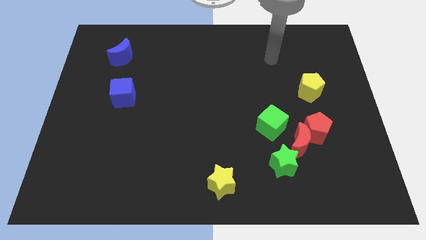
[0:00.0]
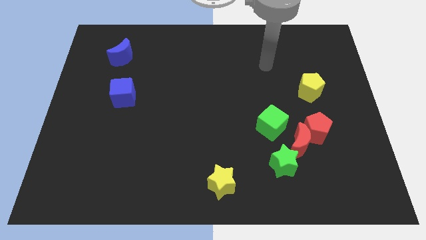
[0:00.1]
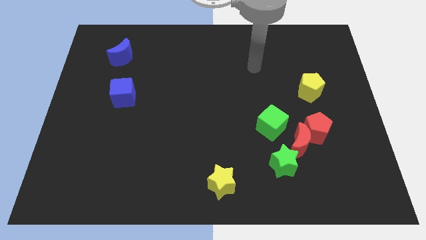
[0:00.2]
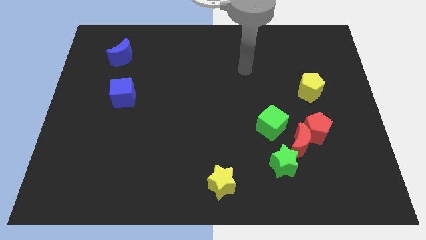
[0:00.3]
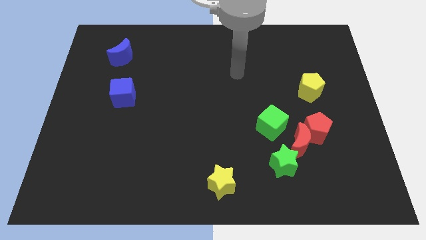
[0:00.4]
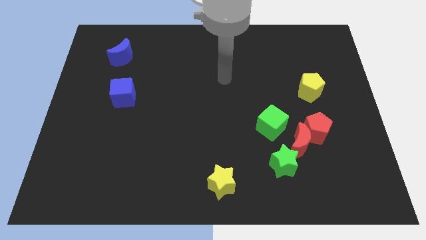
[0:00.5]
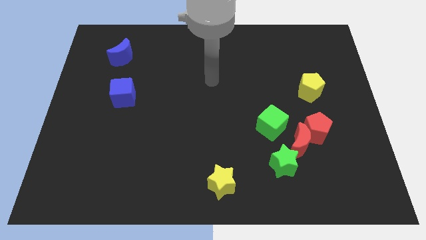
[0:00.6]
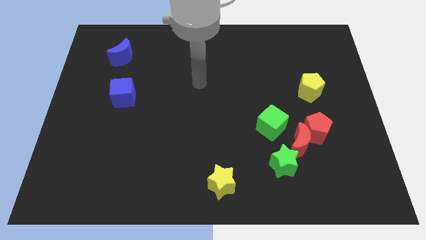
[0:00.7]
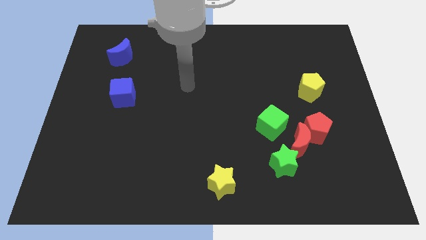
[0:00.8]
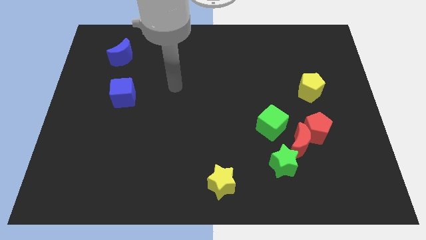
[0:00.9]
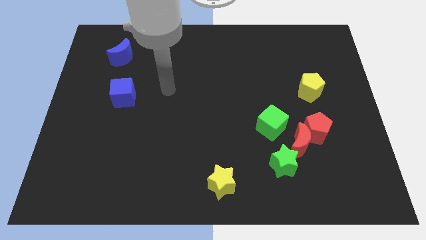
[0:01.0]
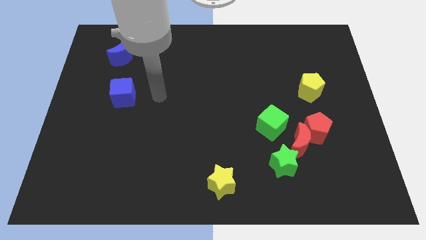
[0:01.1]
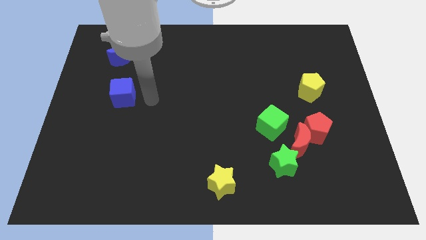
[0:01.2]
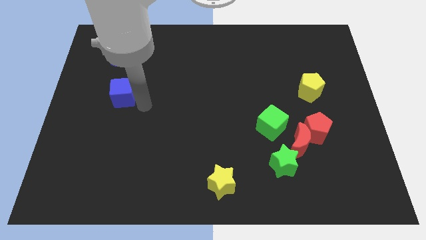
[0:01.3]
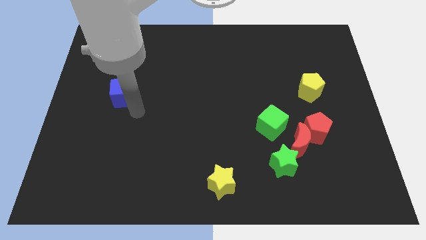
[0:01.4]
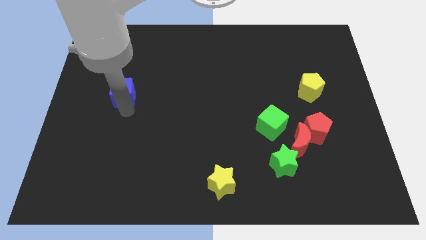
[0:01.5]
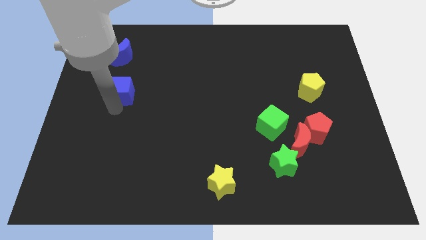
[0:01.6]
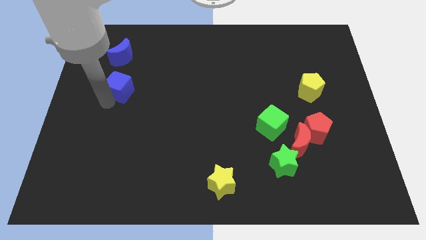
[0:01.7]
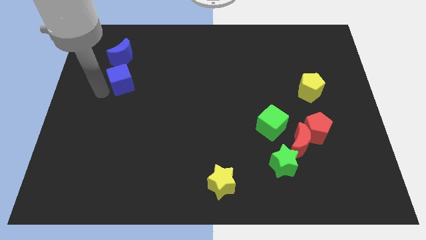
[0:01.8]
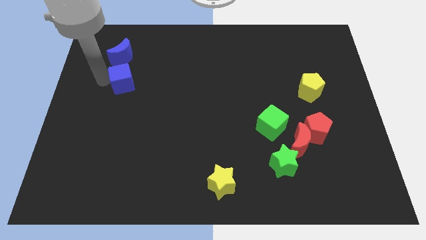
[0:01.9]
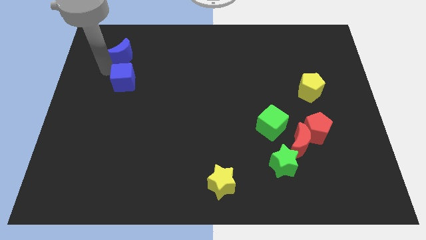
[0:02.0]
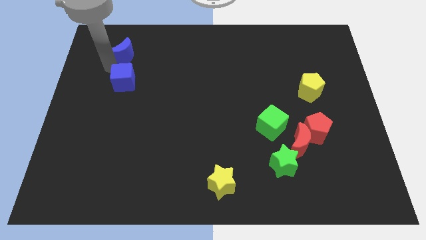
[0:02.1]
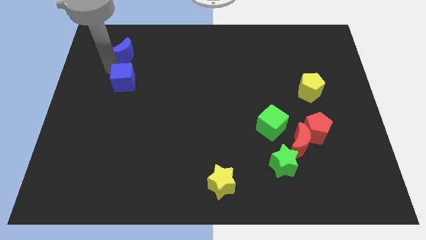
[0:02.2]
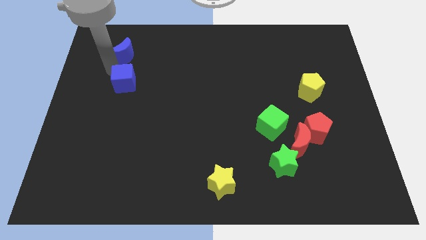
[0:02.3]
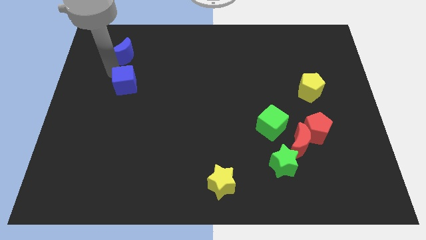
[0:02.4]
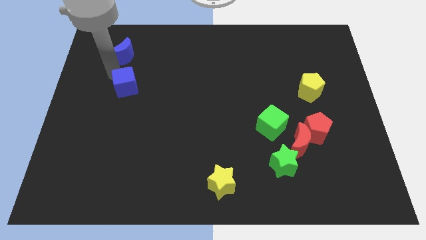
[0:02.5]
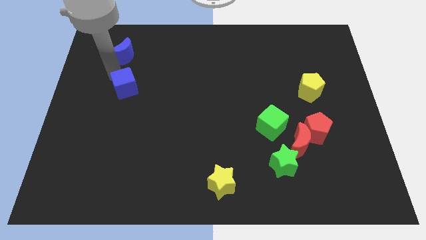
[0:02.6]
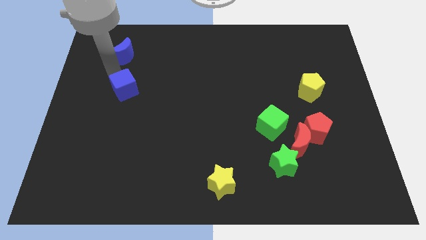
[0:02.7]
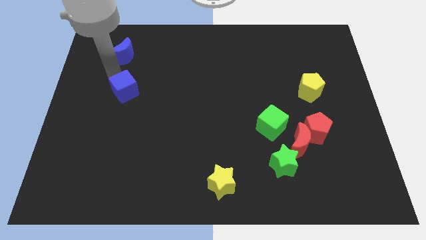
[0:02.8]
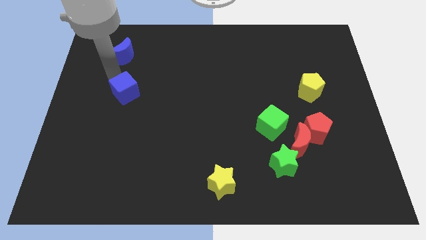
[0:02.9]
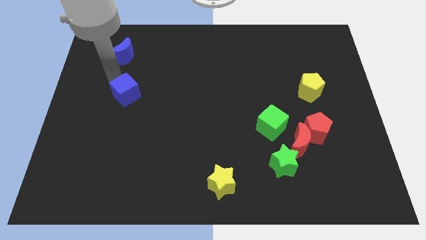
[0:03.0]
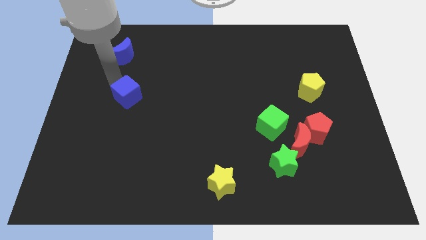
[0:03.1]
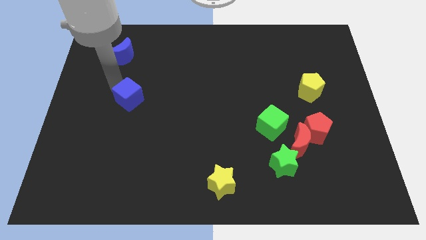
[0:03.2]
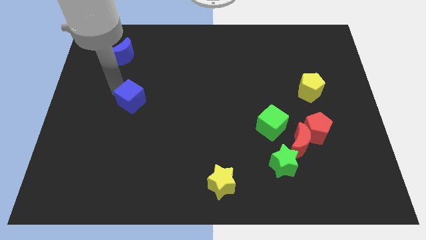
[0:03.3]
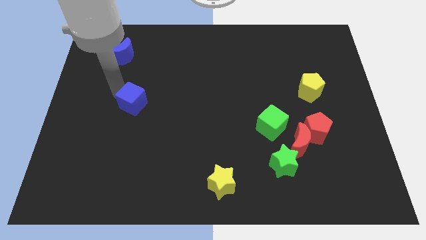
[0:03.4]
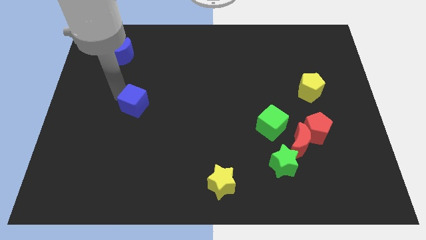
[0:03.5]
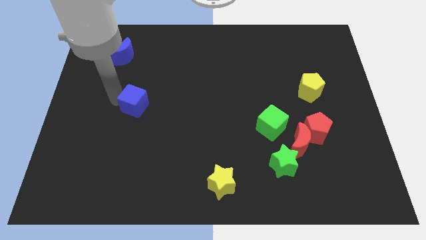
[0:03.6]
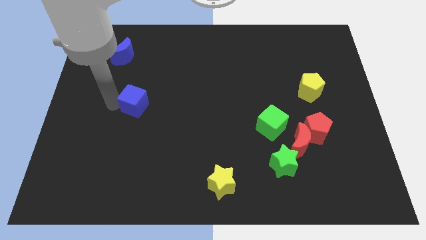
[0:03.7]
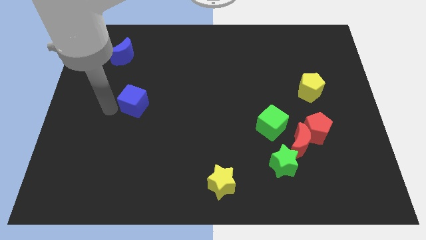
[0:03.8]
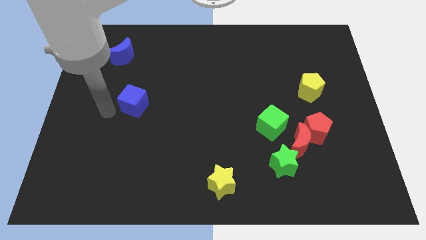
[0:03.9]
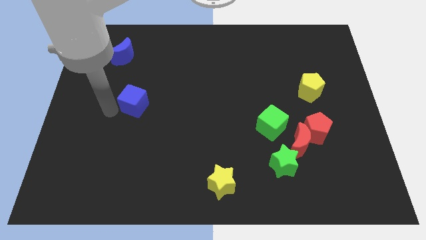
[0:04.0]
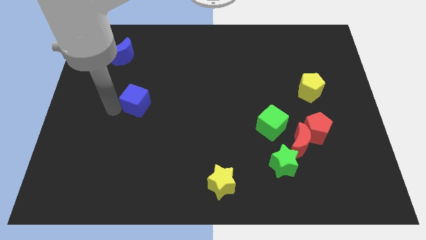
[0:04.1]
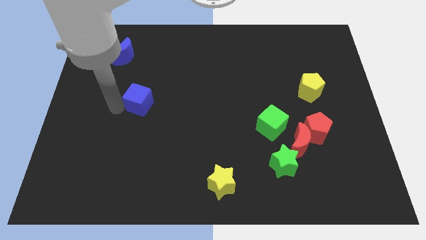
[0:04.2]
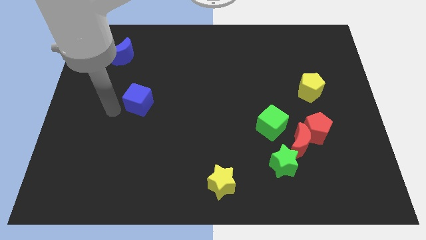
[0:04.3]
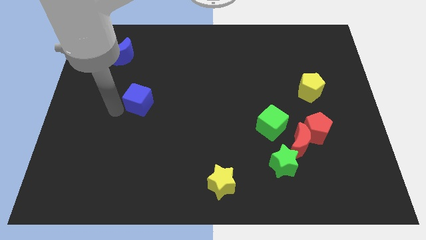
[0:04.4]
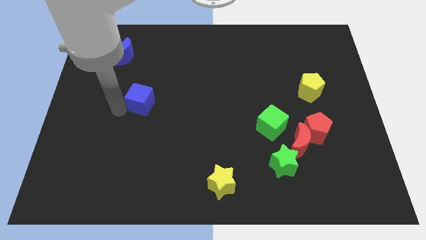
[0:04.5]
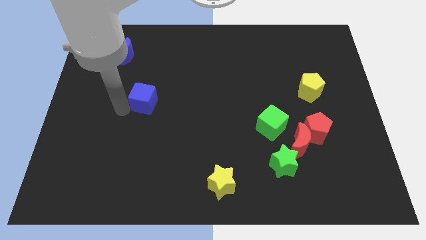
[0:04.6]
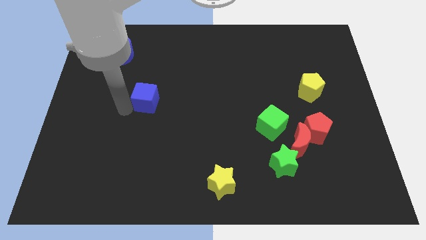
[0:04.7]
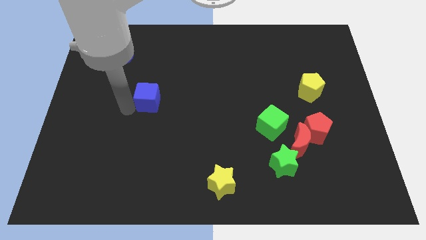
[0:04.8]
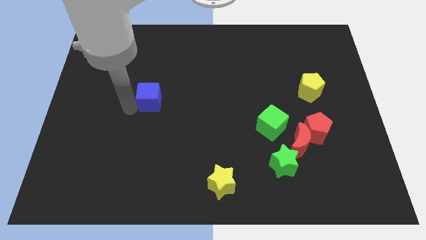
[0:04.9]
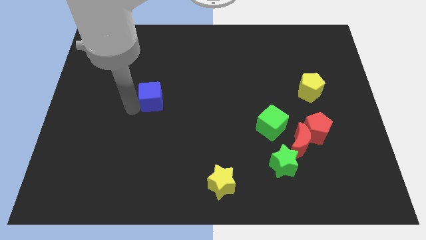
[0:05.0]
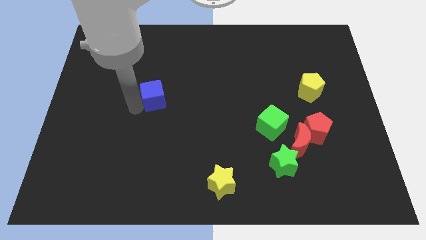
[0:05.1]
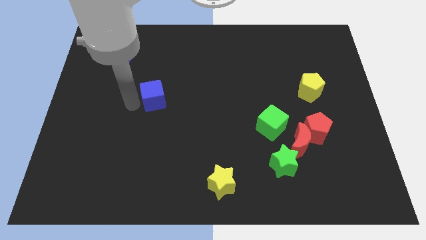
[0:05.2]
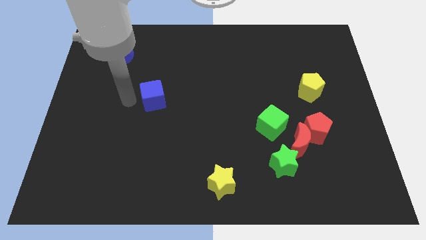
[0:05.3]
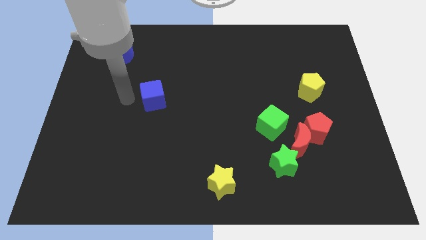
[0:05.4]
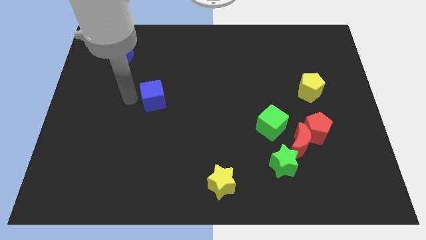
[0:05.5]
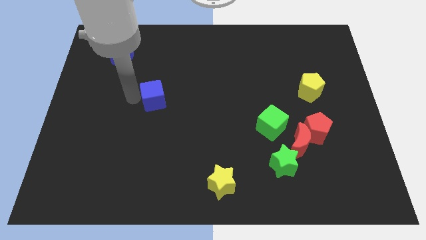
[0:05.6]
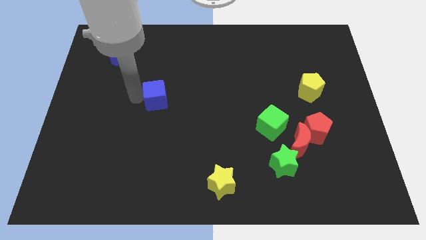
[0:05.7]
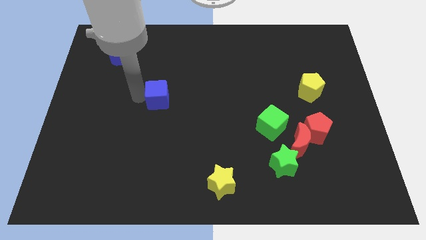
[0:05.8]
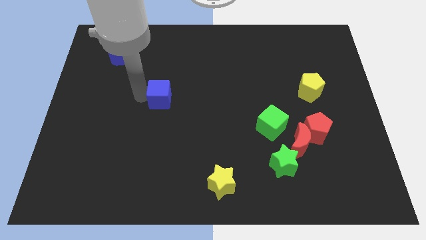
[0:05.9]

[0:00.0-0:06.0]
slide the blue cube to the middle
